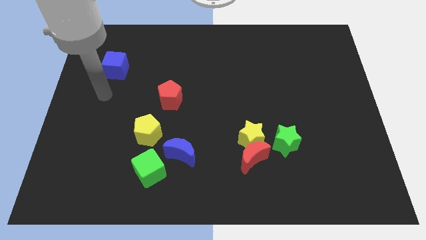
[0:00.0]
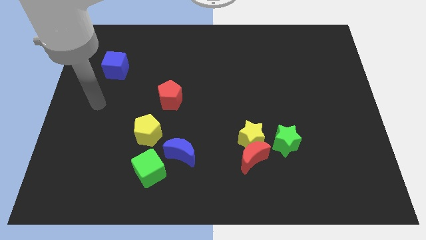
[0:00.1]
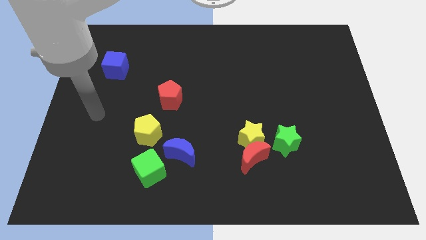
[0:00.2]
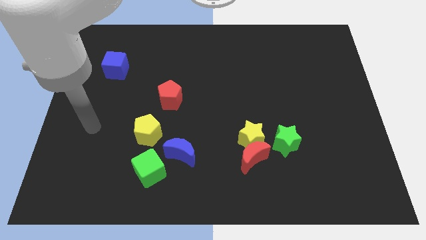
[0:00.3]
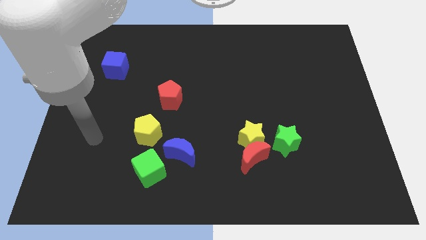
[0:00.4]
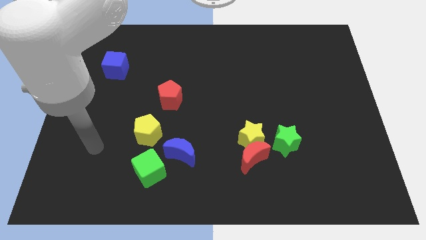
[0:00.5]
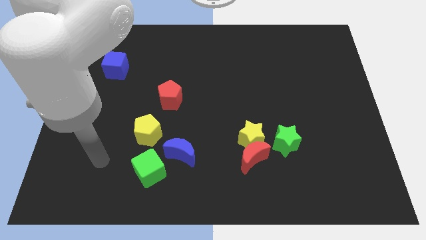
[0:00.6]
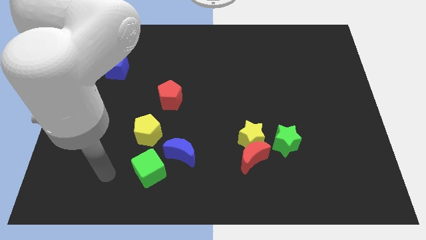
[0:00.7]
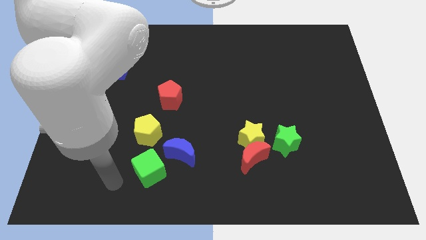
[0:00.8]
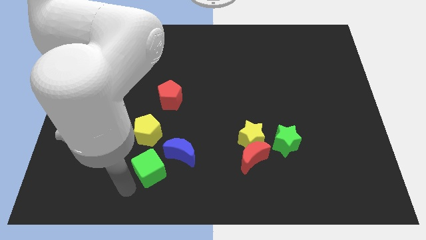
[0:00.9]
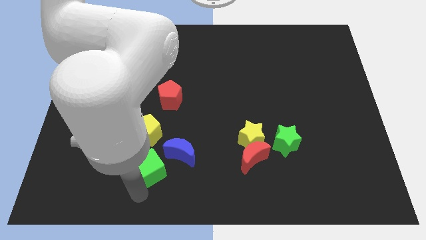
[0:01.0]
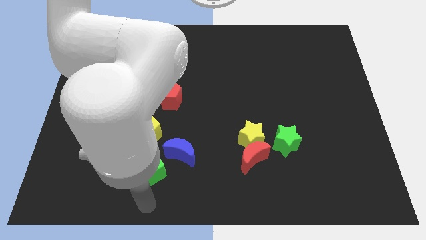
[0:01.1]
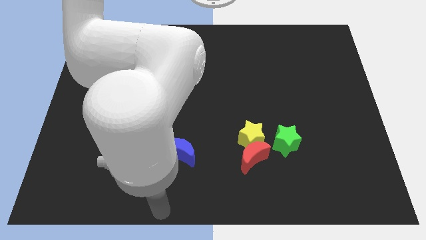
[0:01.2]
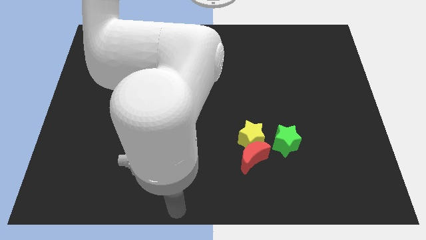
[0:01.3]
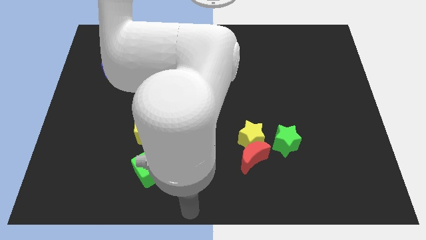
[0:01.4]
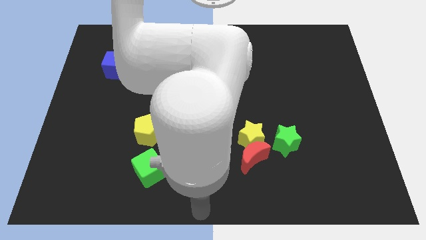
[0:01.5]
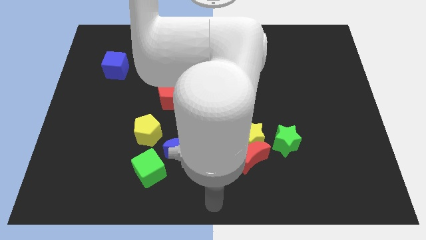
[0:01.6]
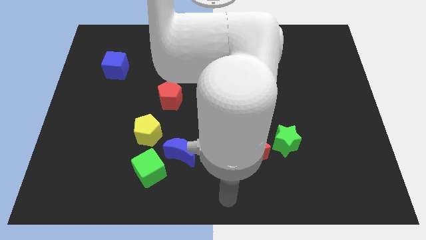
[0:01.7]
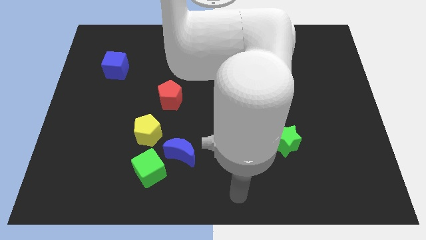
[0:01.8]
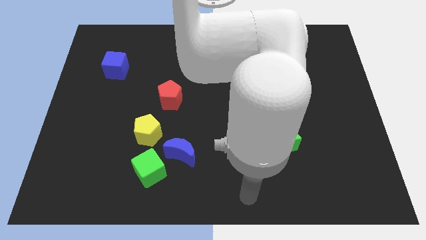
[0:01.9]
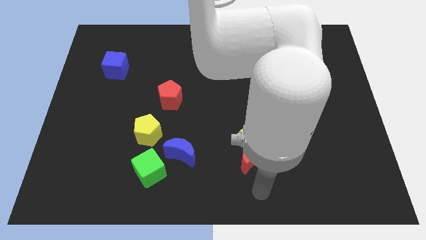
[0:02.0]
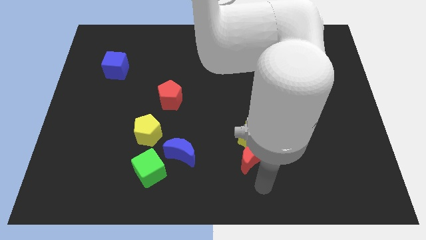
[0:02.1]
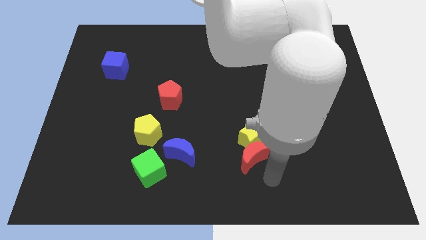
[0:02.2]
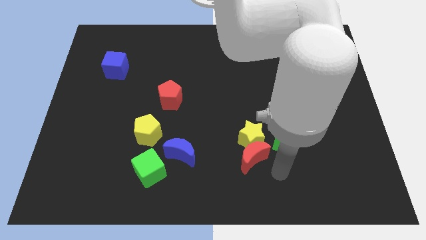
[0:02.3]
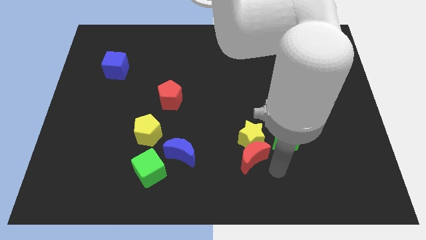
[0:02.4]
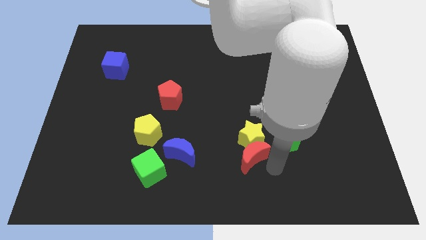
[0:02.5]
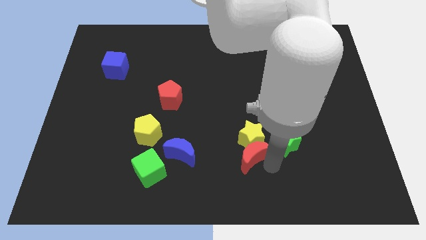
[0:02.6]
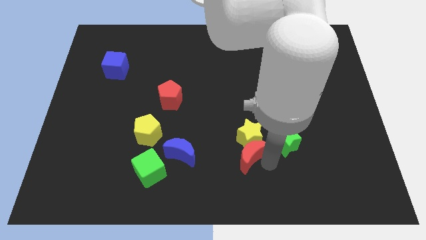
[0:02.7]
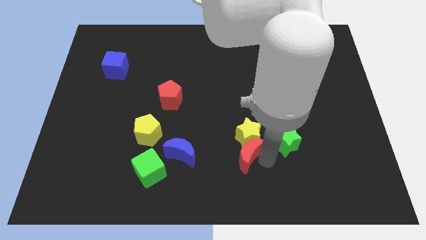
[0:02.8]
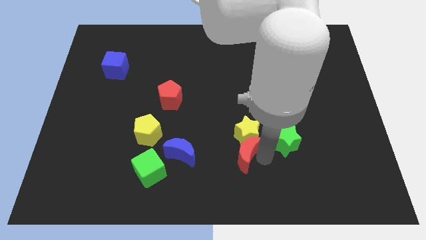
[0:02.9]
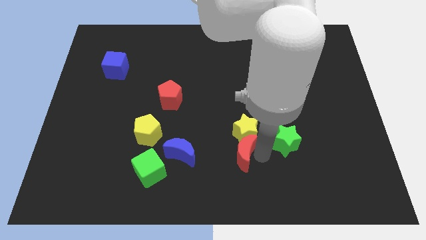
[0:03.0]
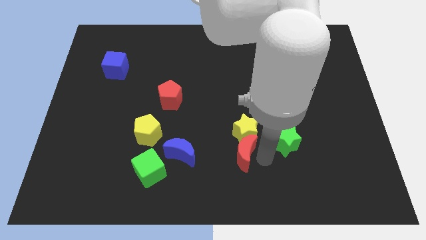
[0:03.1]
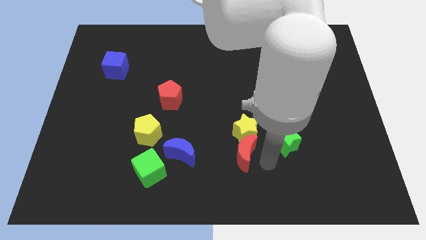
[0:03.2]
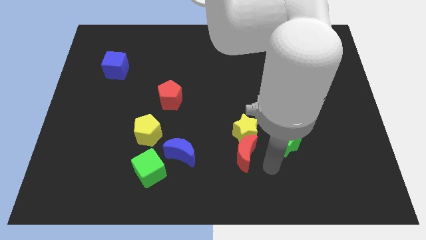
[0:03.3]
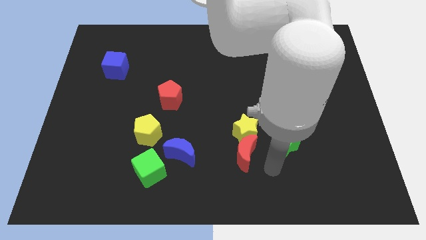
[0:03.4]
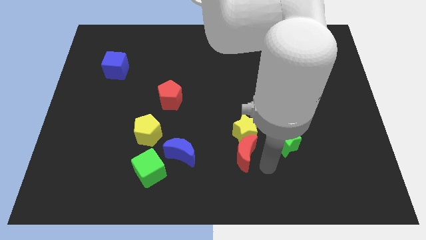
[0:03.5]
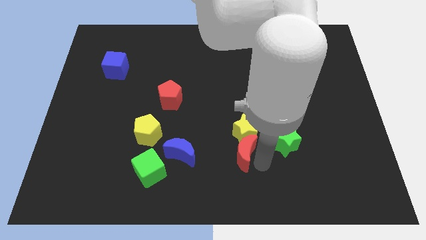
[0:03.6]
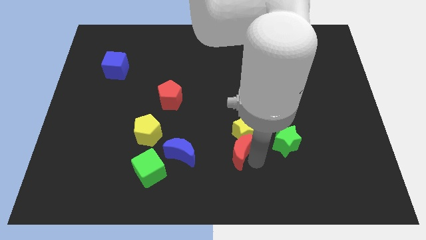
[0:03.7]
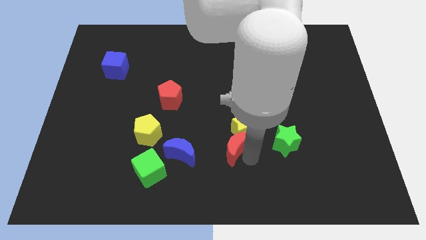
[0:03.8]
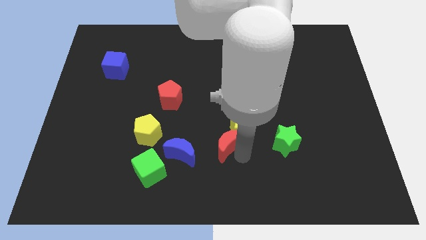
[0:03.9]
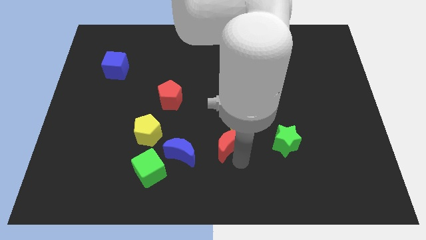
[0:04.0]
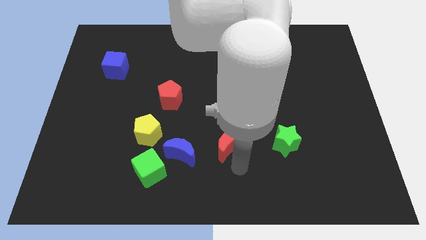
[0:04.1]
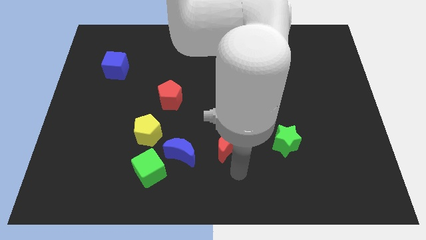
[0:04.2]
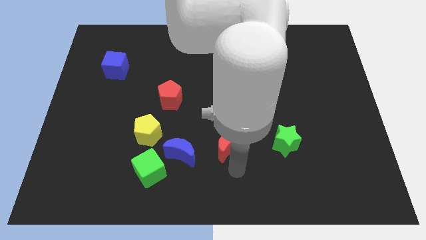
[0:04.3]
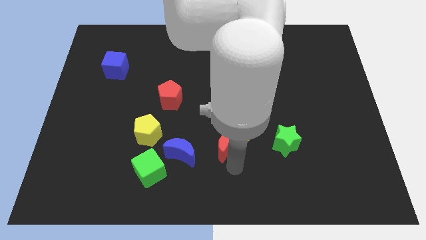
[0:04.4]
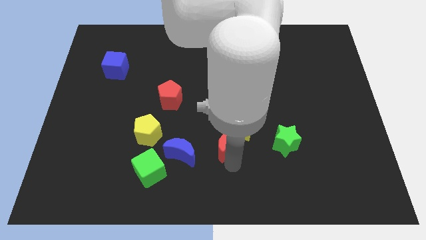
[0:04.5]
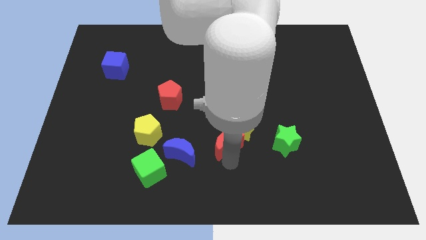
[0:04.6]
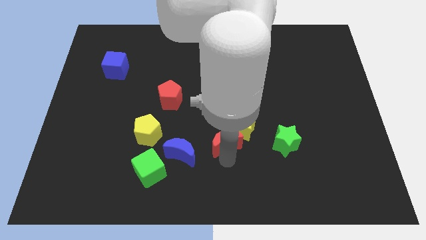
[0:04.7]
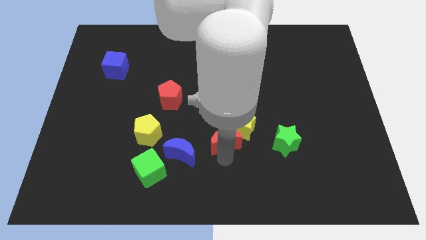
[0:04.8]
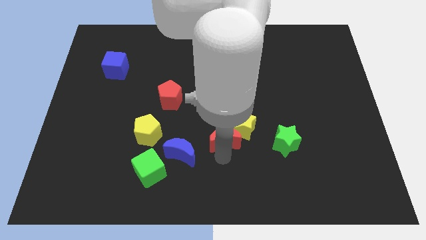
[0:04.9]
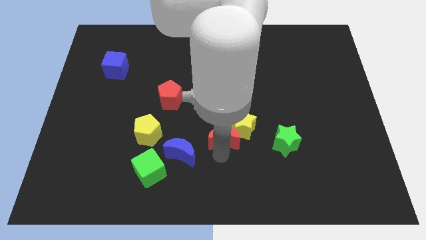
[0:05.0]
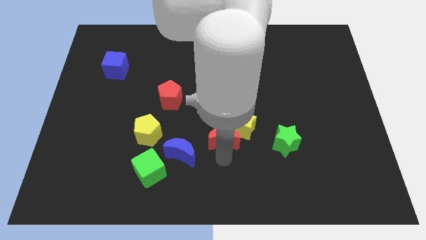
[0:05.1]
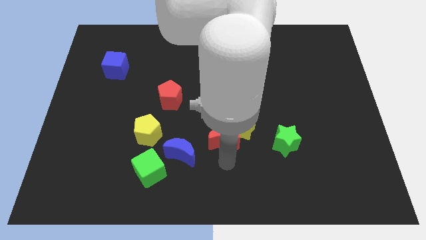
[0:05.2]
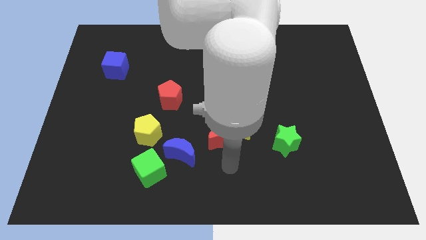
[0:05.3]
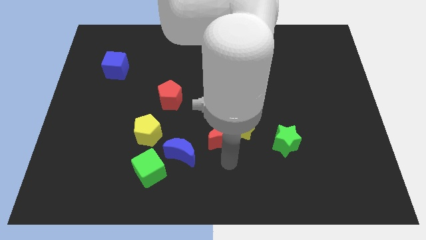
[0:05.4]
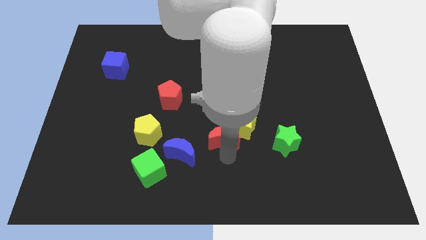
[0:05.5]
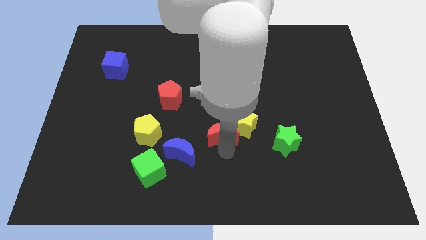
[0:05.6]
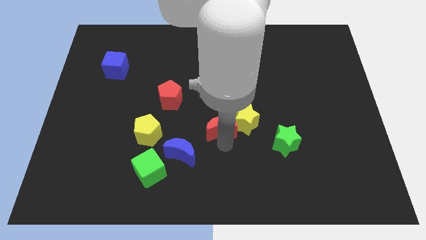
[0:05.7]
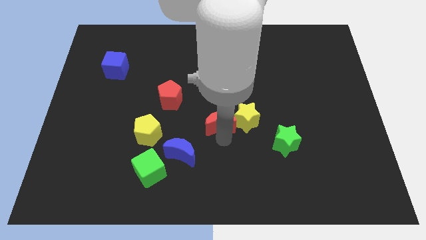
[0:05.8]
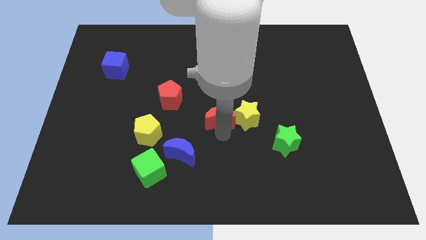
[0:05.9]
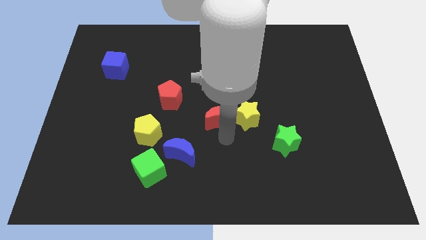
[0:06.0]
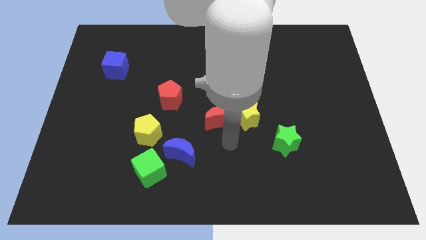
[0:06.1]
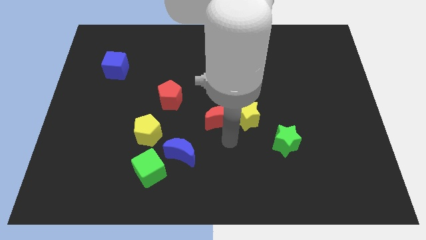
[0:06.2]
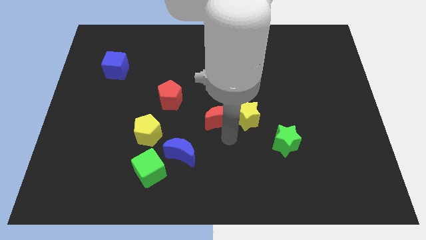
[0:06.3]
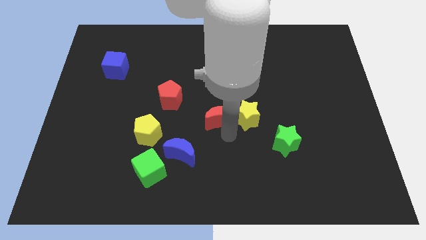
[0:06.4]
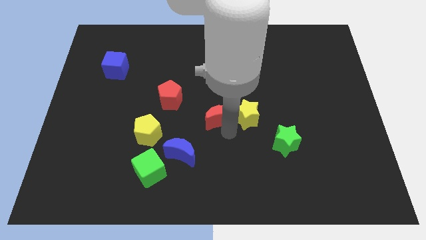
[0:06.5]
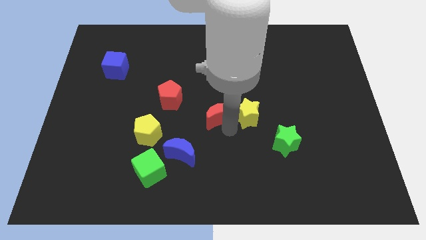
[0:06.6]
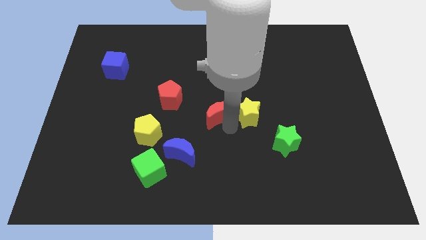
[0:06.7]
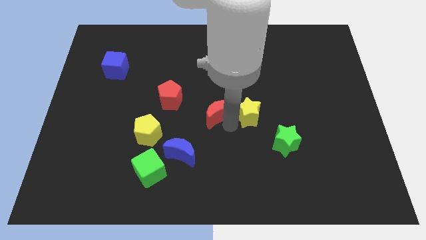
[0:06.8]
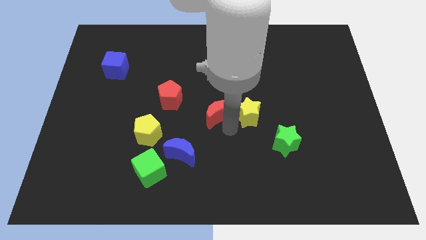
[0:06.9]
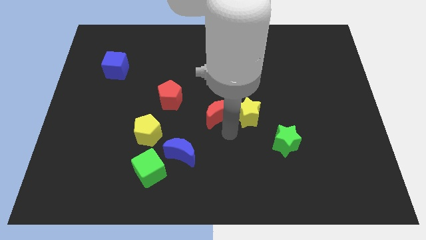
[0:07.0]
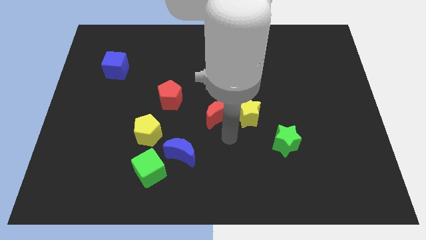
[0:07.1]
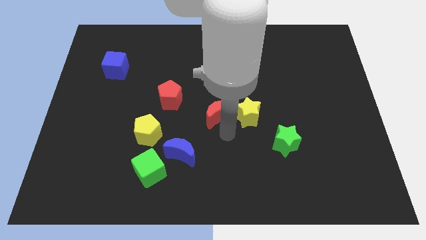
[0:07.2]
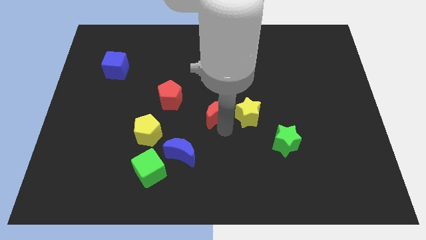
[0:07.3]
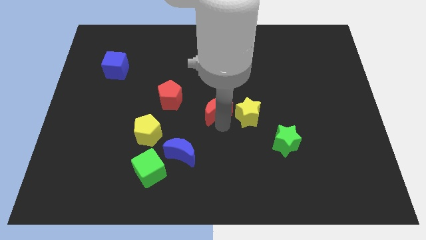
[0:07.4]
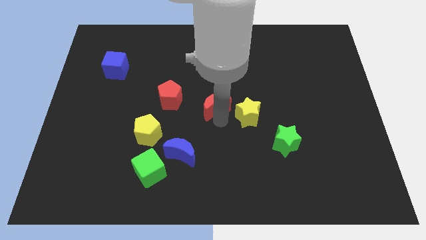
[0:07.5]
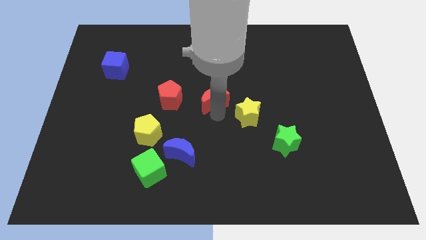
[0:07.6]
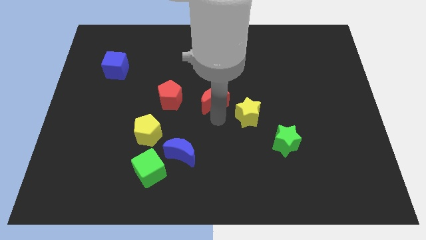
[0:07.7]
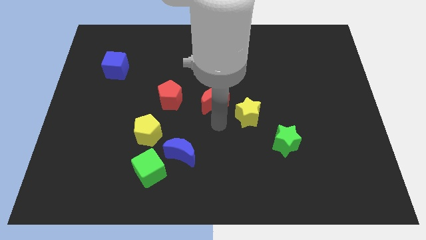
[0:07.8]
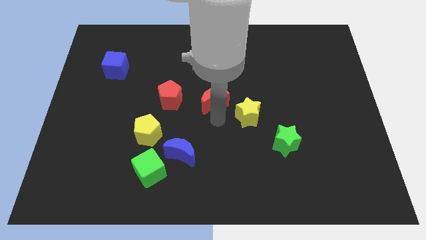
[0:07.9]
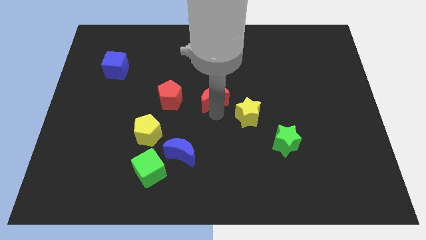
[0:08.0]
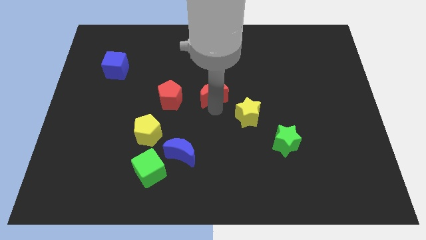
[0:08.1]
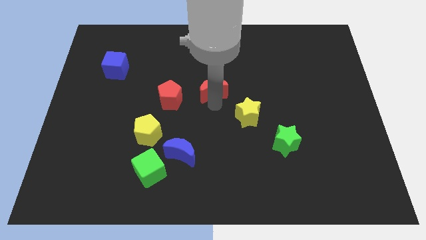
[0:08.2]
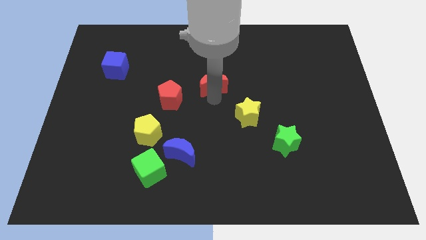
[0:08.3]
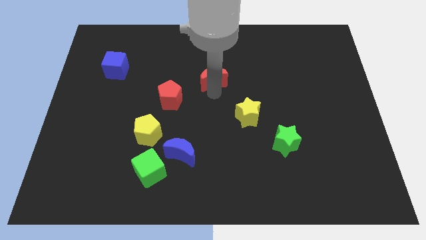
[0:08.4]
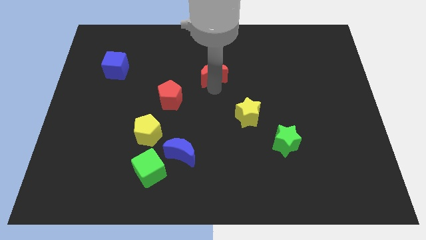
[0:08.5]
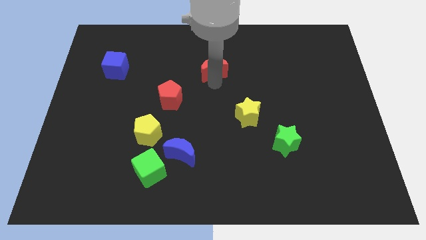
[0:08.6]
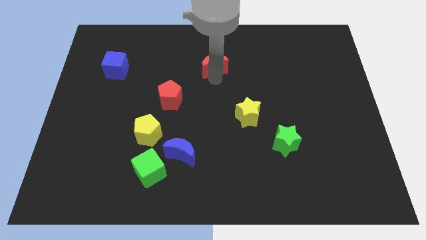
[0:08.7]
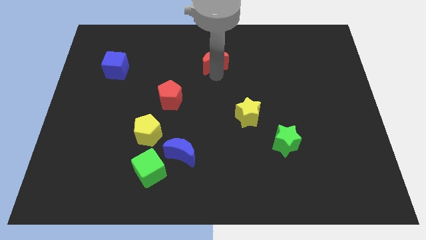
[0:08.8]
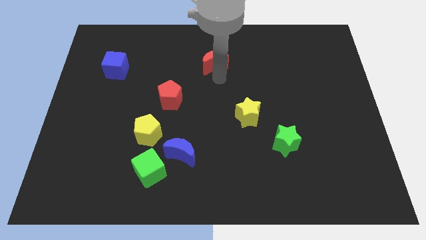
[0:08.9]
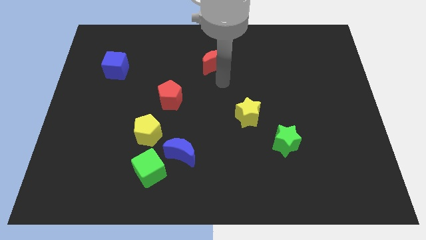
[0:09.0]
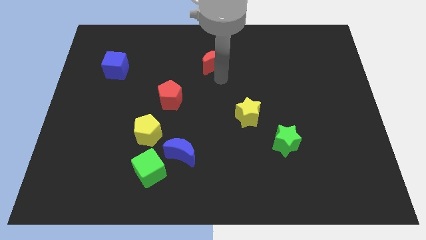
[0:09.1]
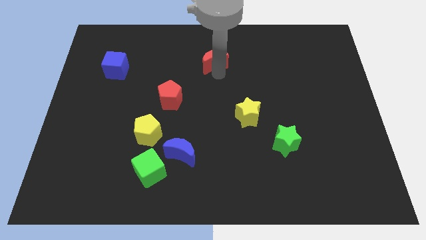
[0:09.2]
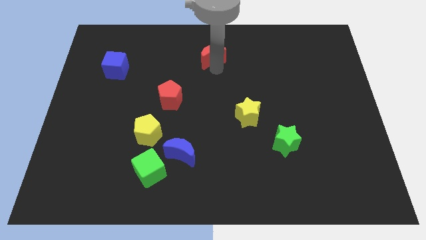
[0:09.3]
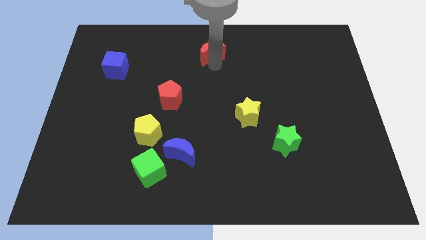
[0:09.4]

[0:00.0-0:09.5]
move the red moon to the top
